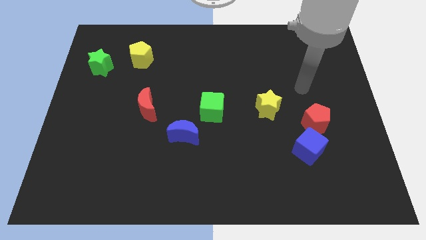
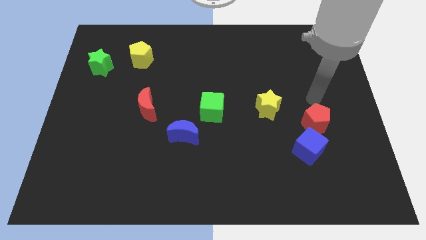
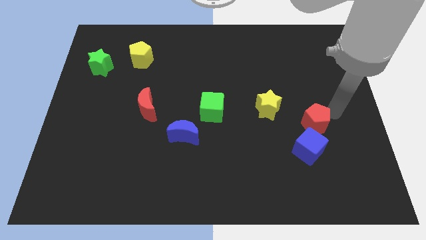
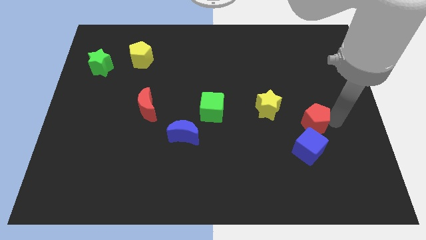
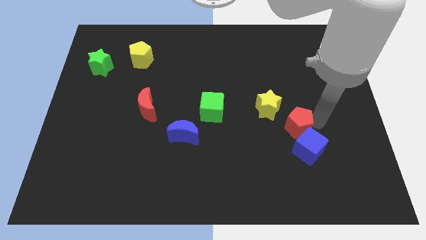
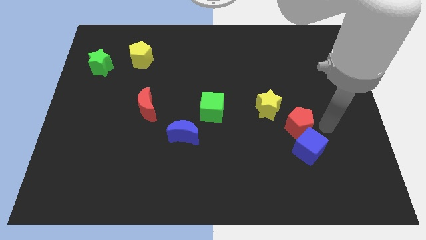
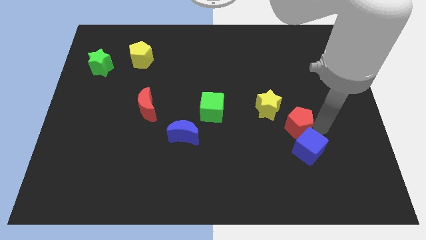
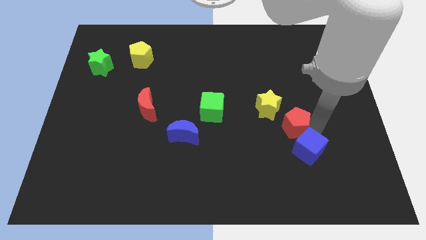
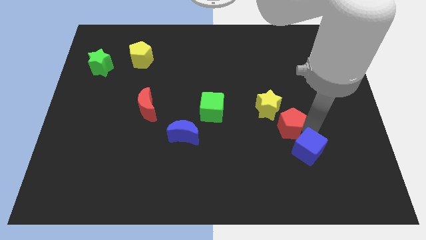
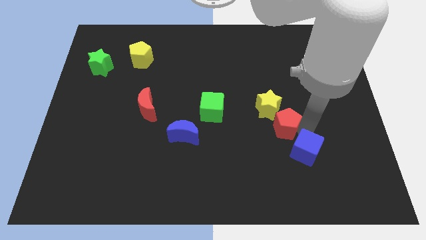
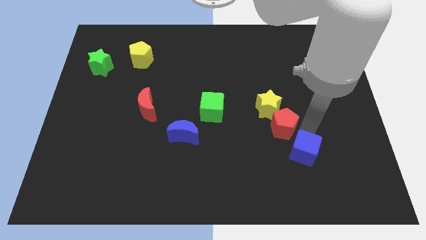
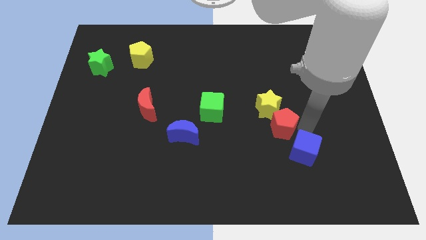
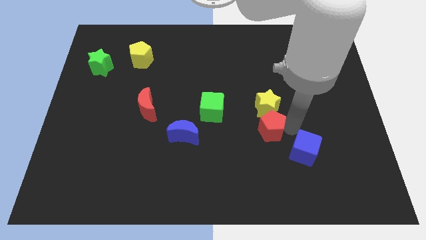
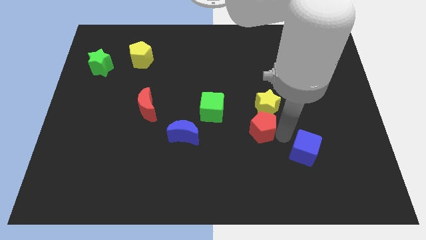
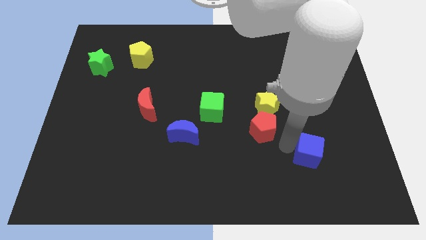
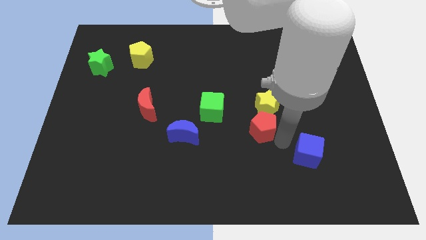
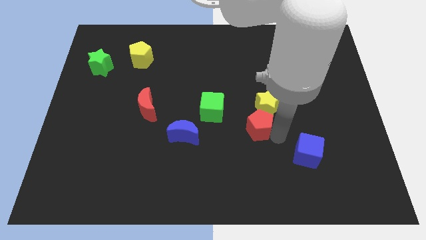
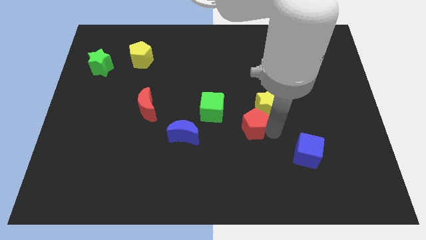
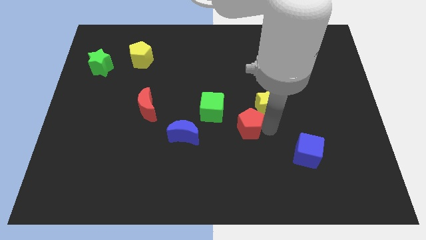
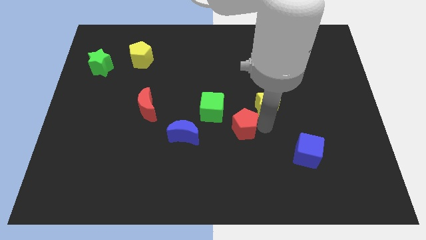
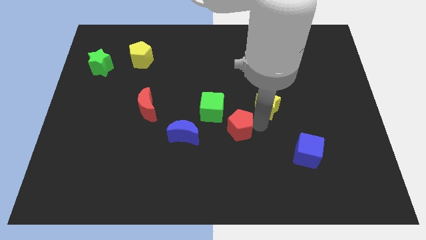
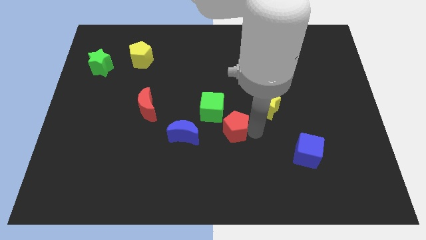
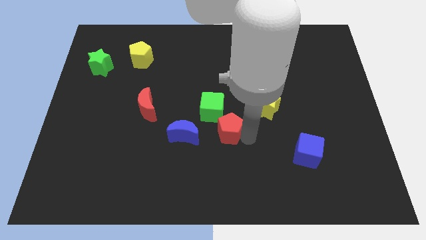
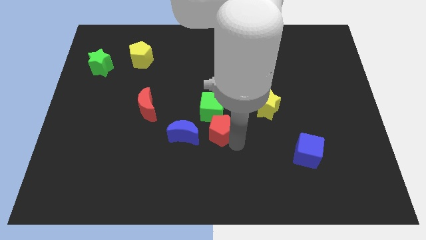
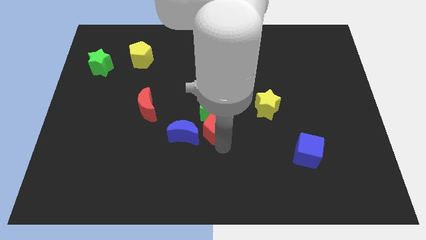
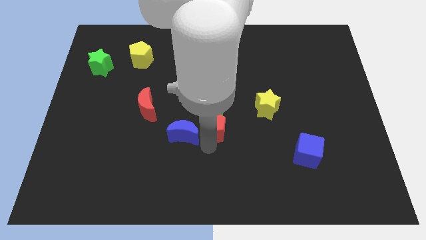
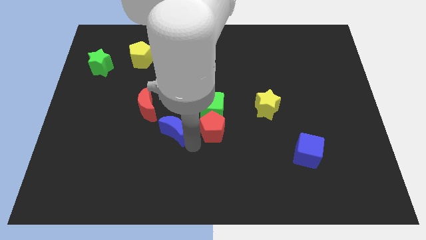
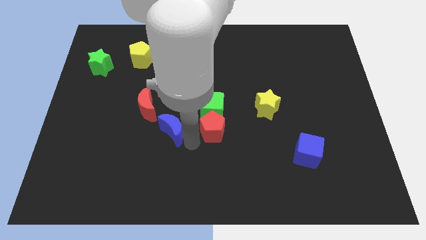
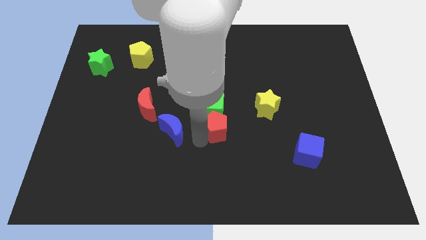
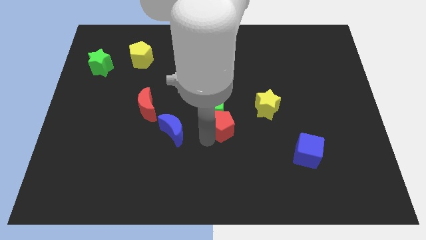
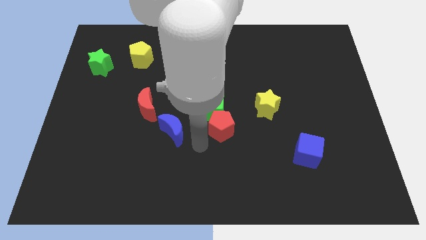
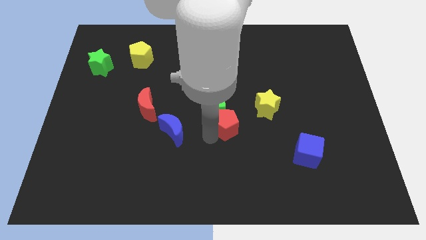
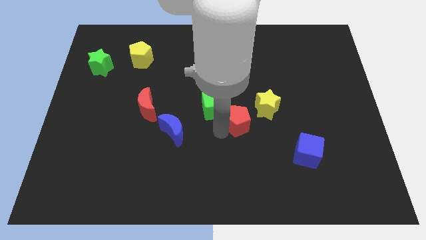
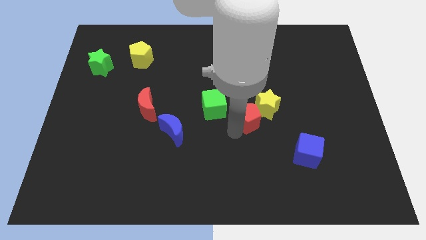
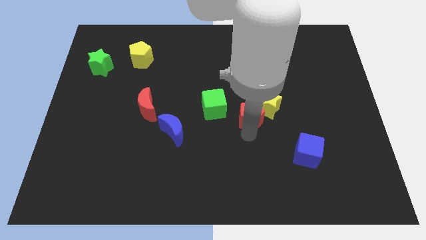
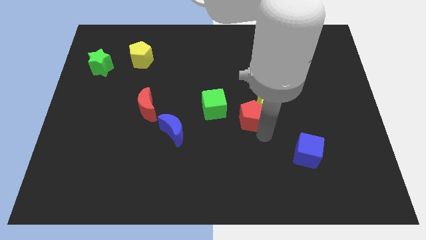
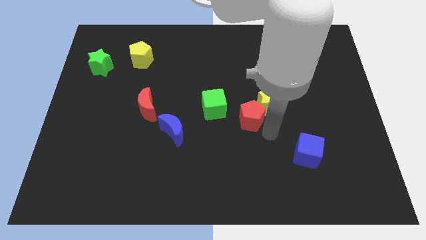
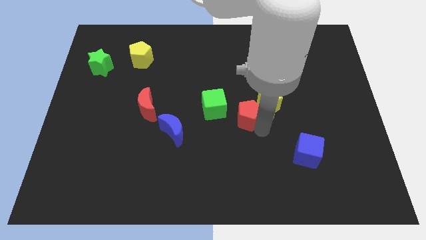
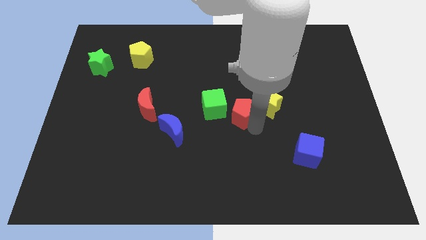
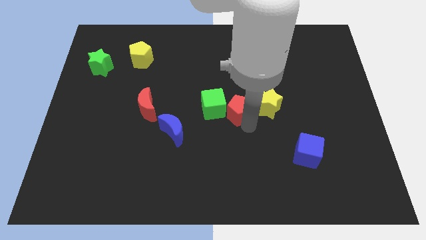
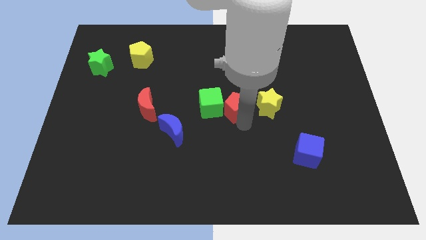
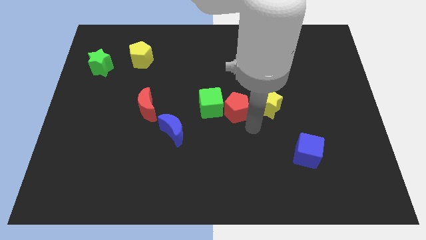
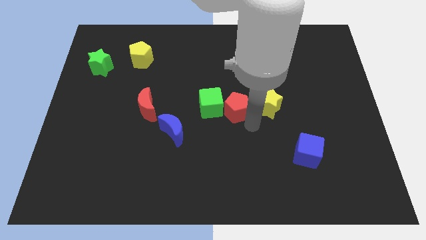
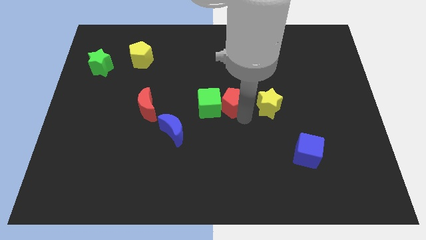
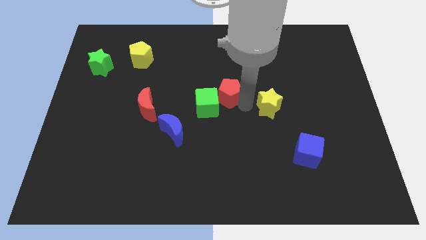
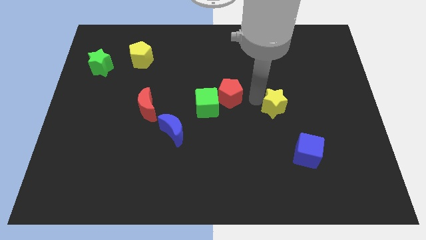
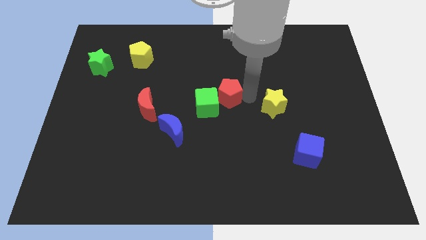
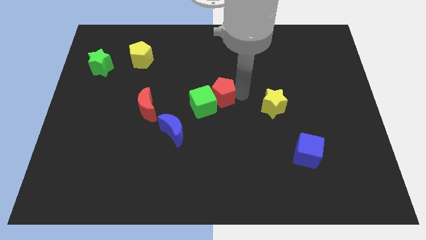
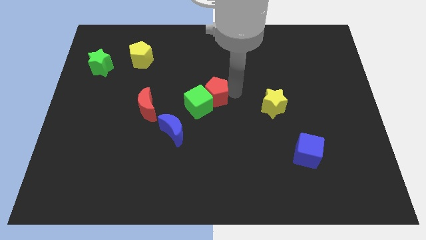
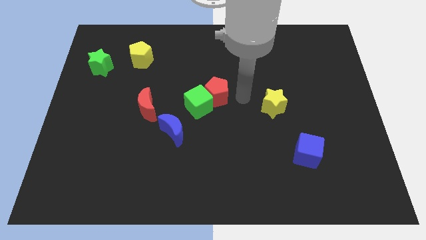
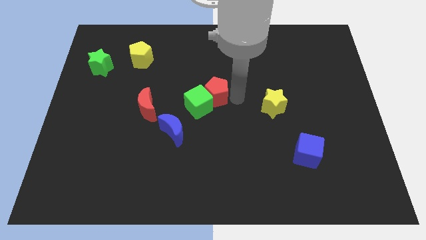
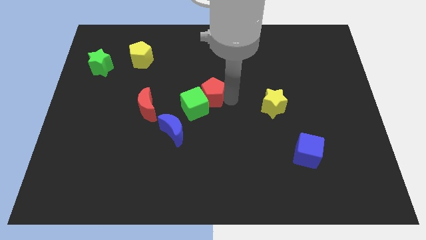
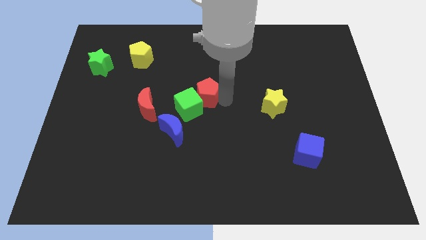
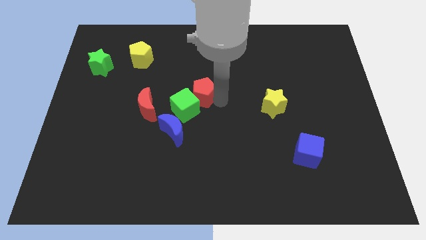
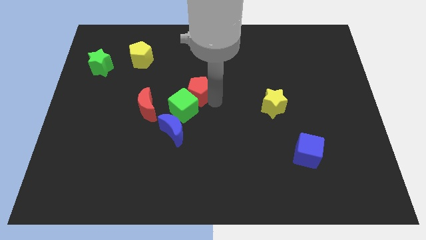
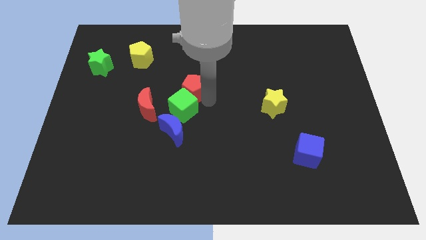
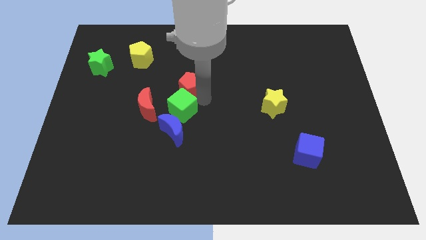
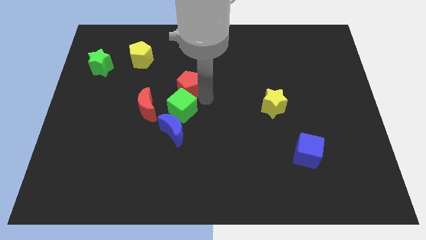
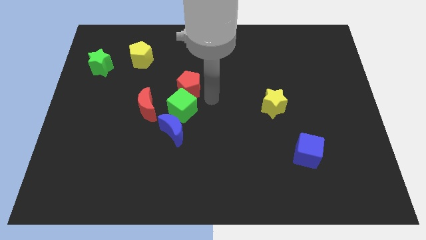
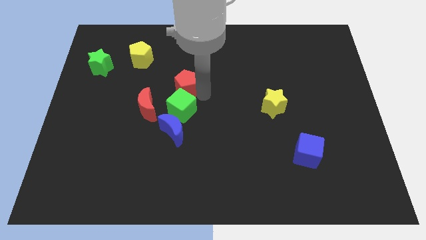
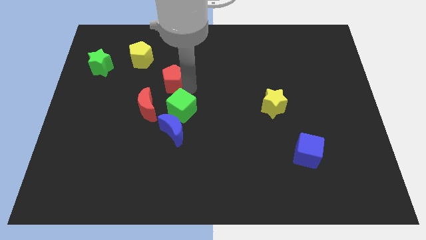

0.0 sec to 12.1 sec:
push the red pentagon diagonally down and to the right of the yellow pentagon

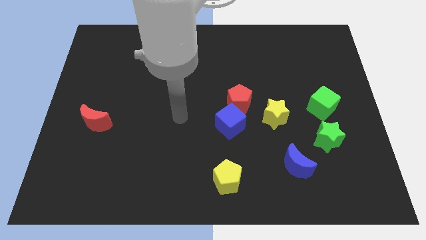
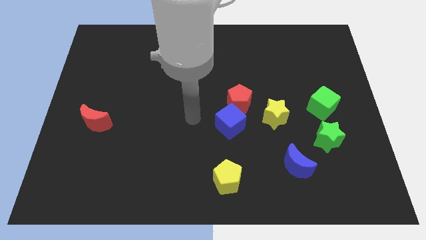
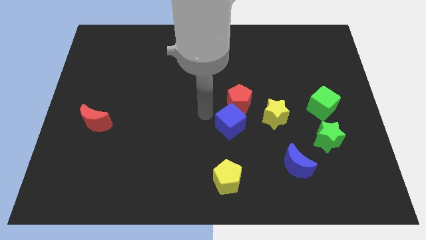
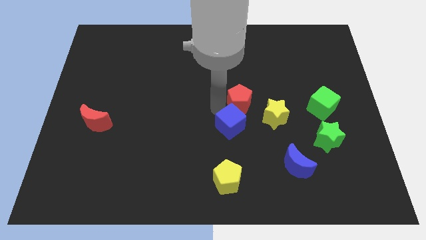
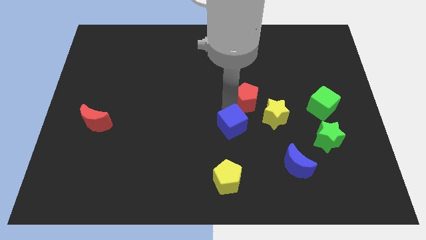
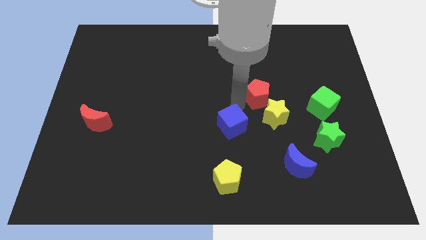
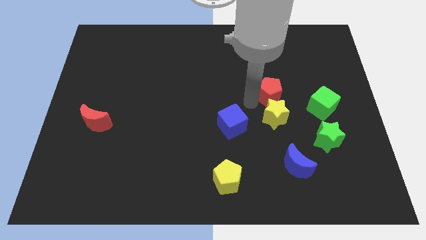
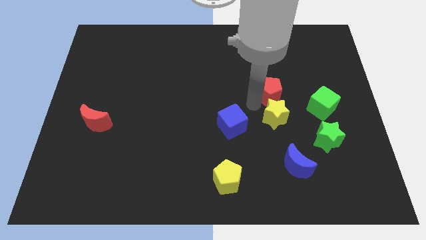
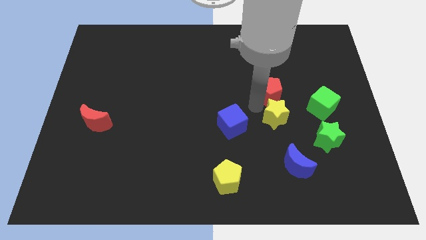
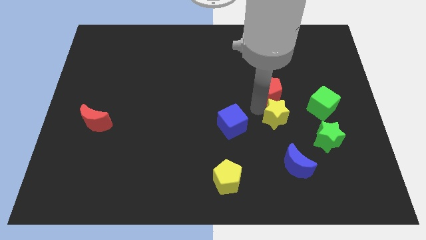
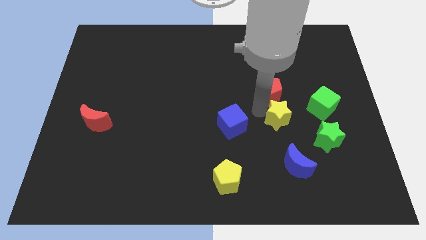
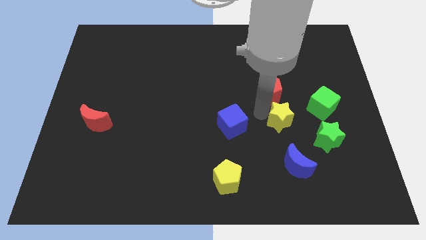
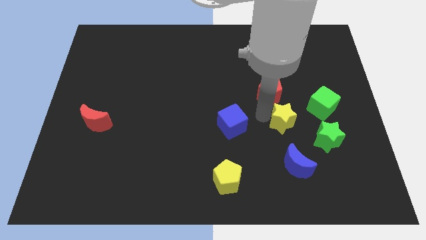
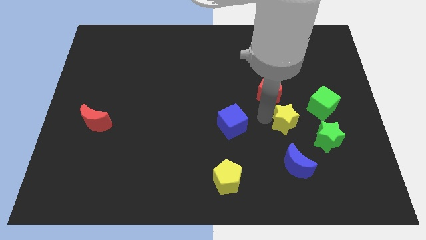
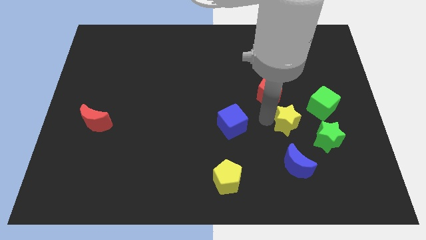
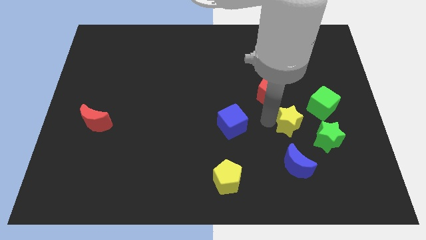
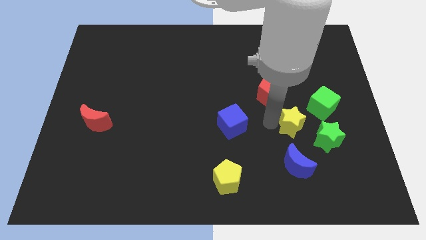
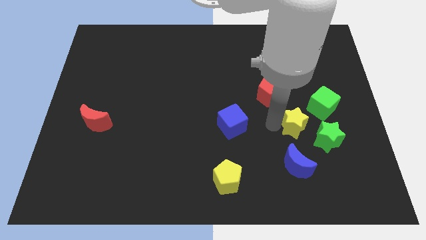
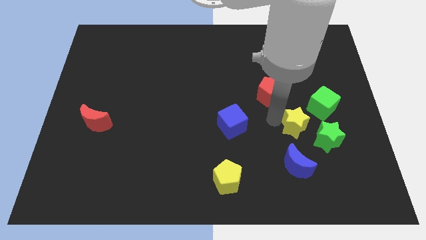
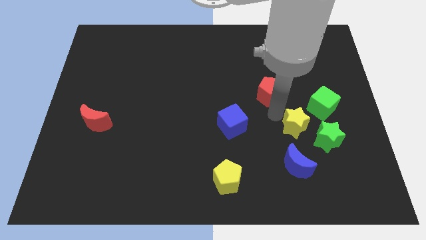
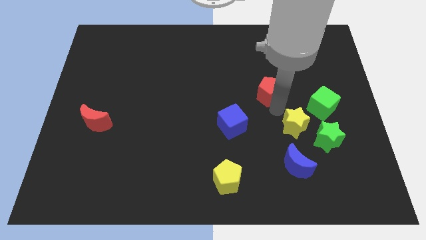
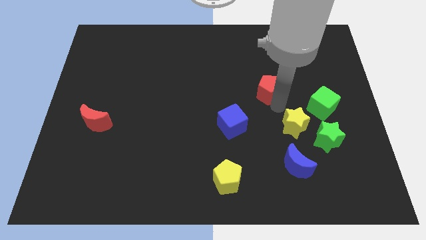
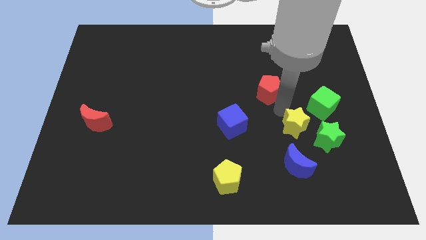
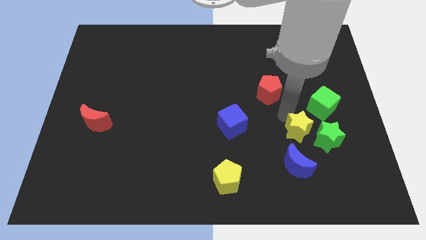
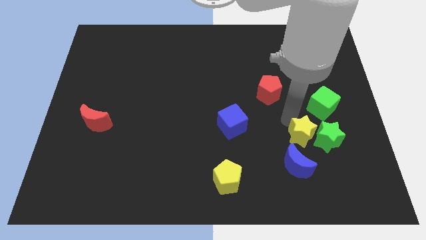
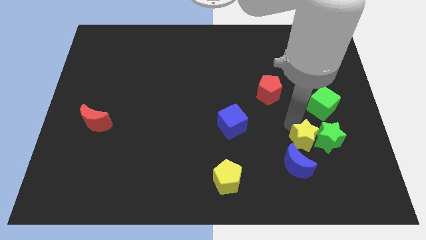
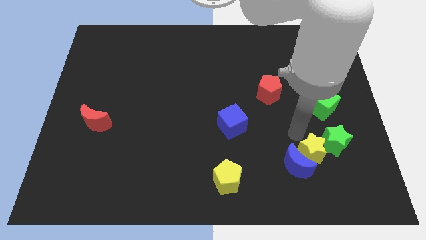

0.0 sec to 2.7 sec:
move the yellow star to the right side of the blue moon
